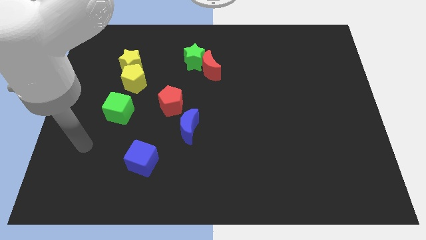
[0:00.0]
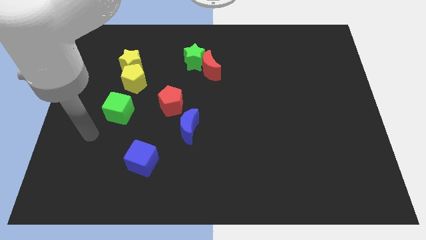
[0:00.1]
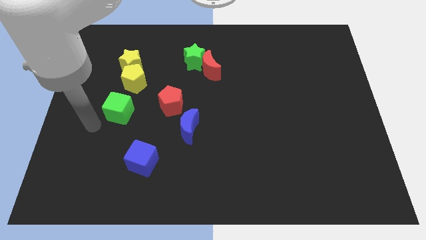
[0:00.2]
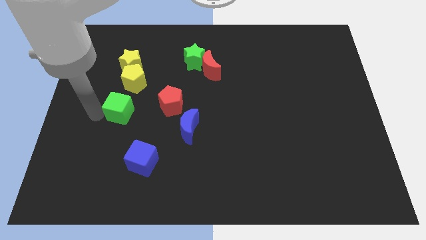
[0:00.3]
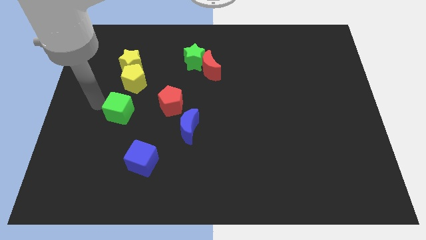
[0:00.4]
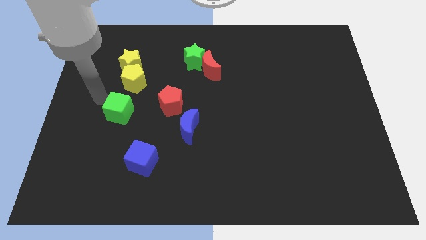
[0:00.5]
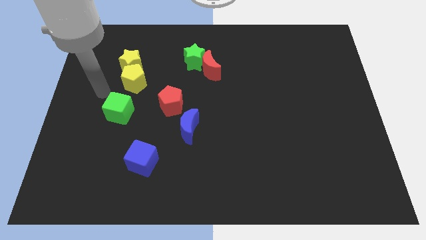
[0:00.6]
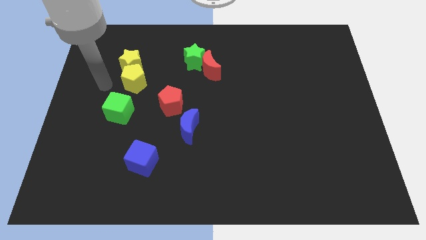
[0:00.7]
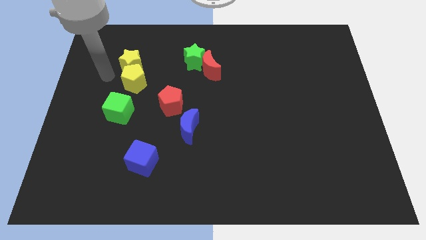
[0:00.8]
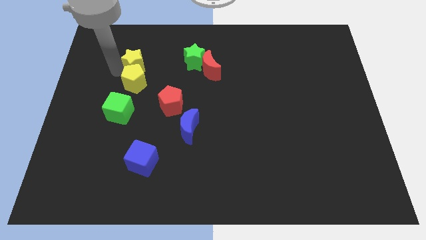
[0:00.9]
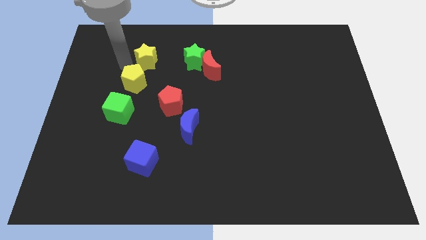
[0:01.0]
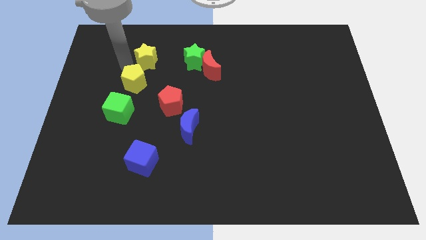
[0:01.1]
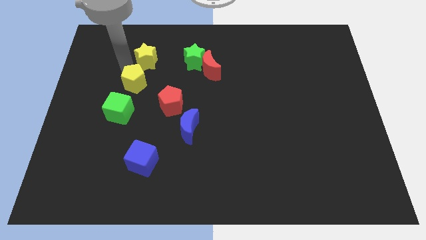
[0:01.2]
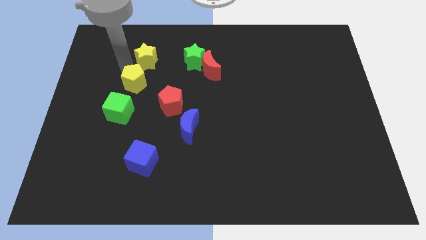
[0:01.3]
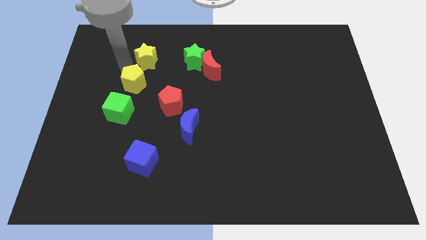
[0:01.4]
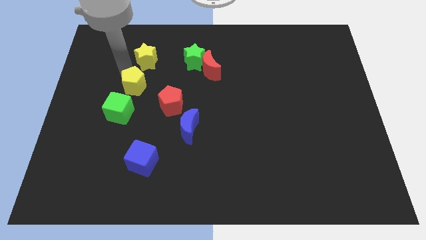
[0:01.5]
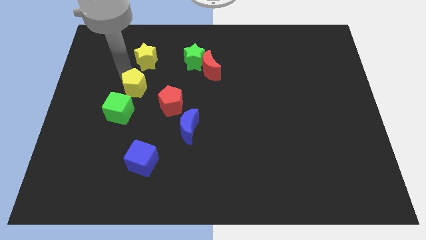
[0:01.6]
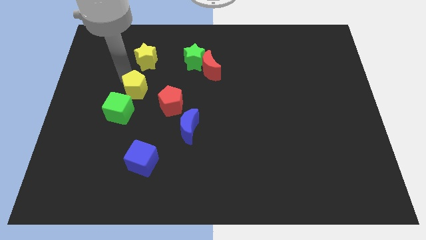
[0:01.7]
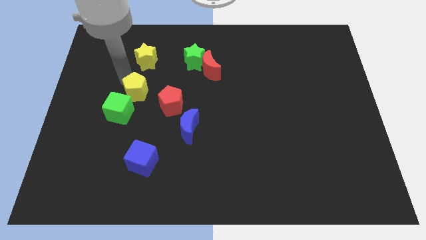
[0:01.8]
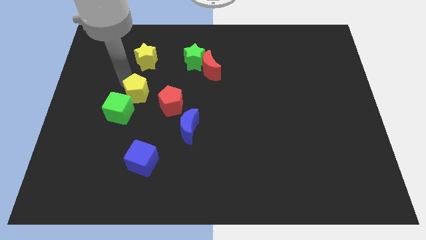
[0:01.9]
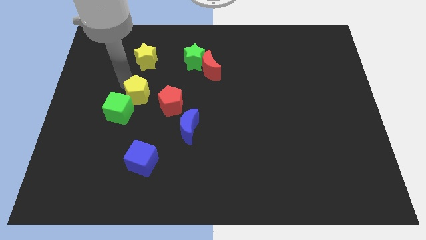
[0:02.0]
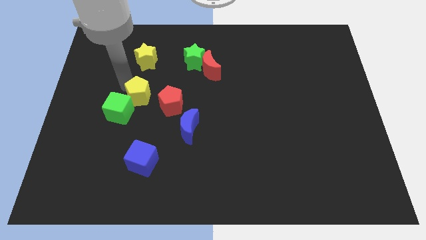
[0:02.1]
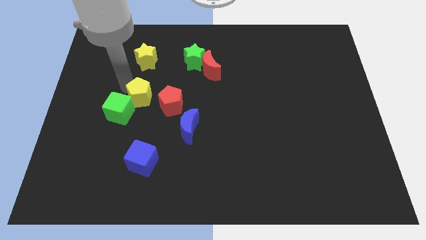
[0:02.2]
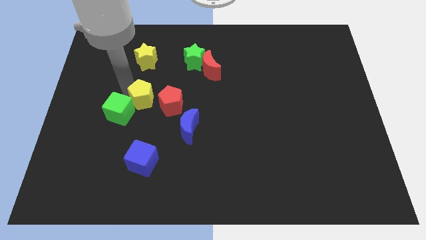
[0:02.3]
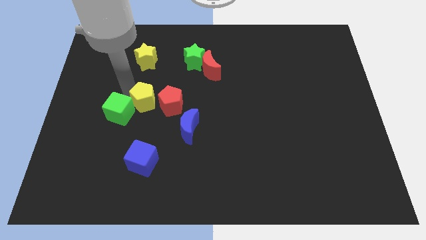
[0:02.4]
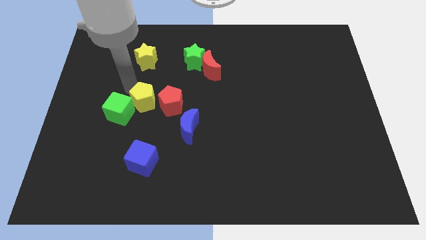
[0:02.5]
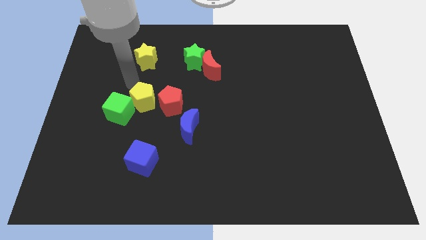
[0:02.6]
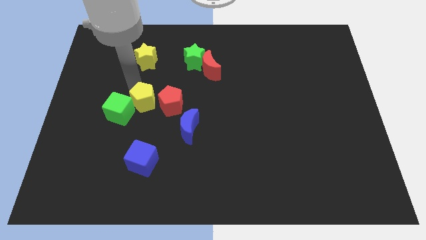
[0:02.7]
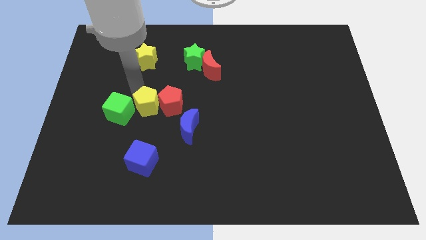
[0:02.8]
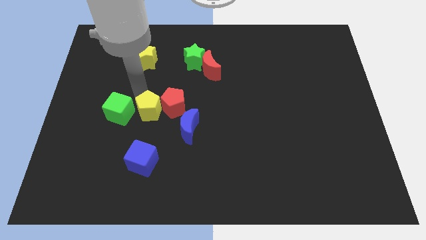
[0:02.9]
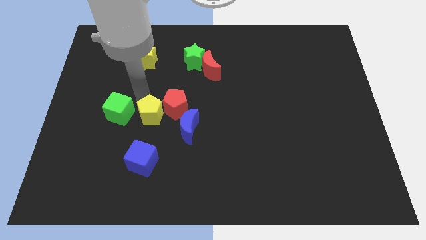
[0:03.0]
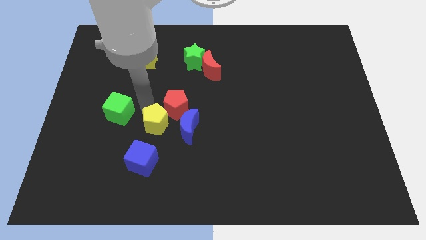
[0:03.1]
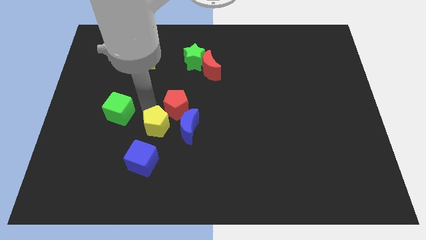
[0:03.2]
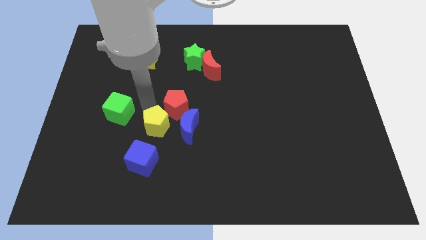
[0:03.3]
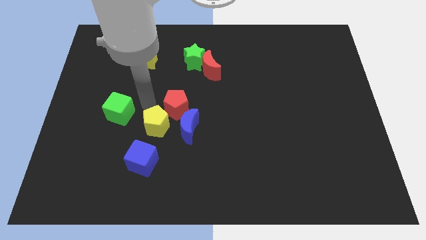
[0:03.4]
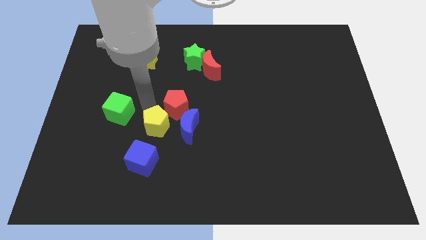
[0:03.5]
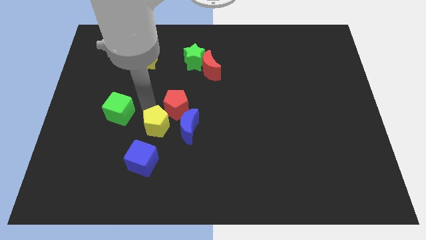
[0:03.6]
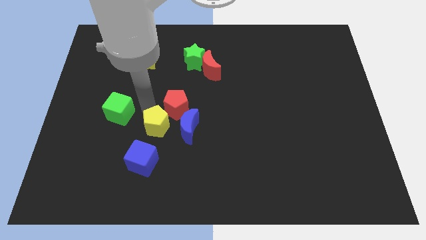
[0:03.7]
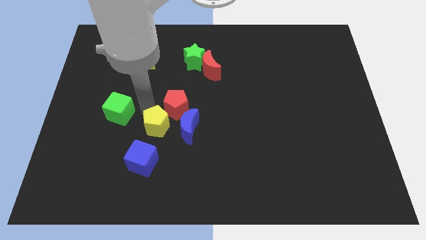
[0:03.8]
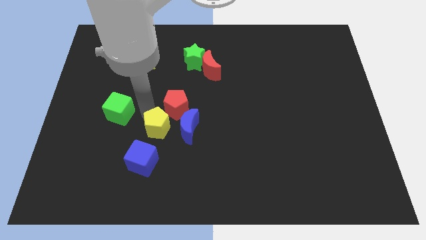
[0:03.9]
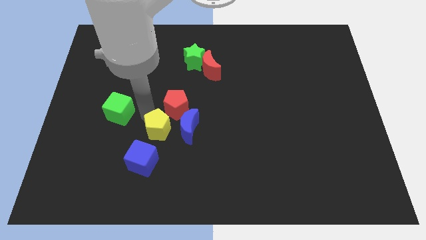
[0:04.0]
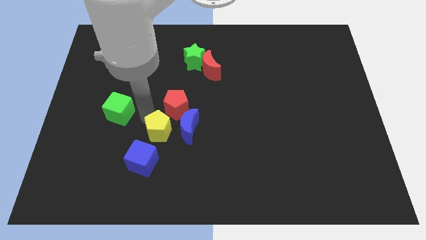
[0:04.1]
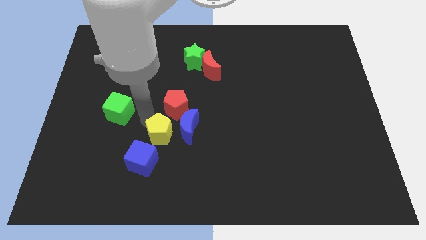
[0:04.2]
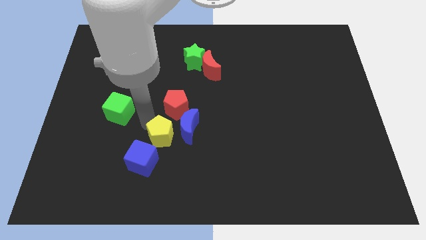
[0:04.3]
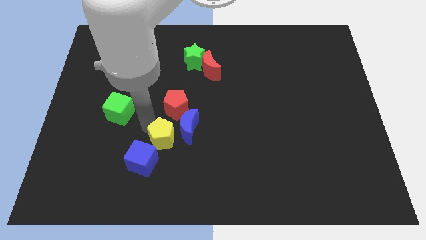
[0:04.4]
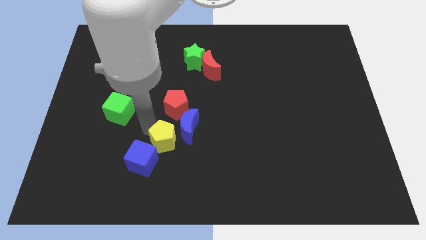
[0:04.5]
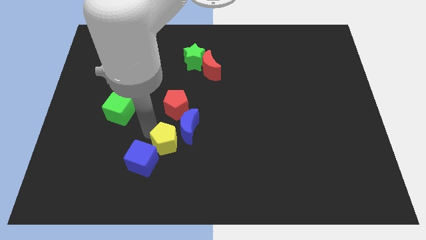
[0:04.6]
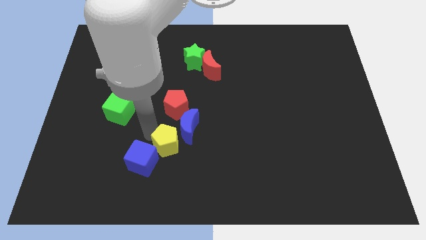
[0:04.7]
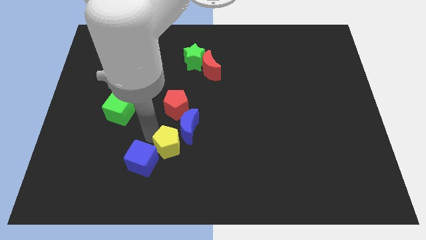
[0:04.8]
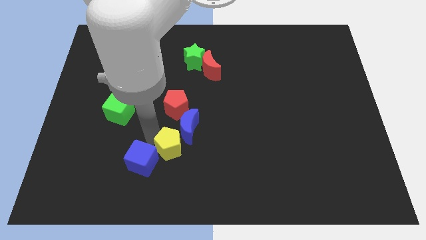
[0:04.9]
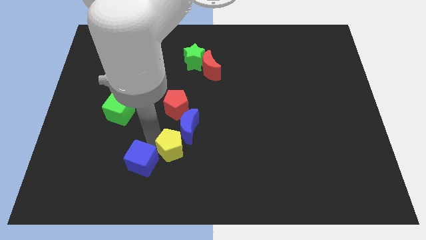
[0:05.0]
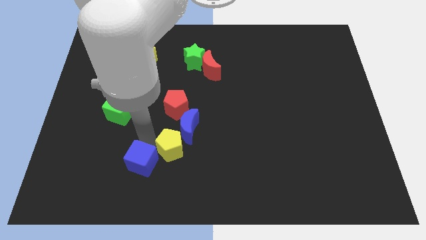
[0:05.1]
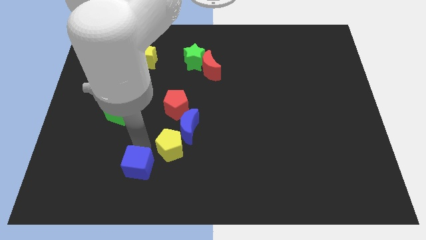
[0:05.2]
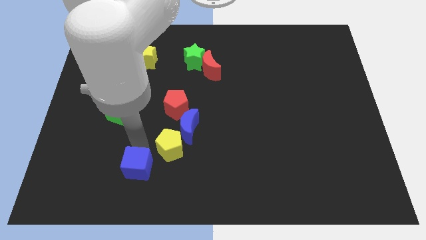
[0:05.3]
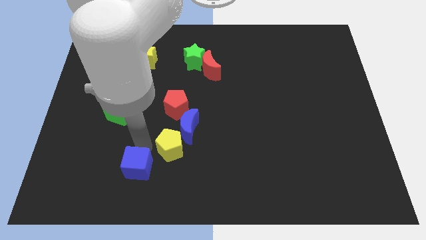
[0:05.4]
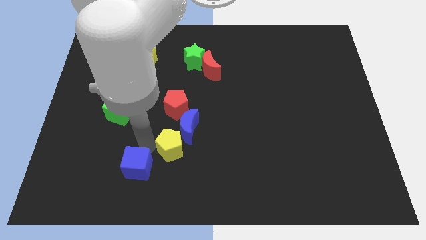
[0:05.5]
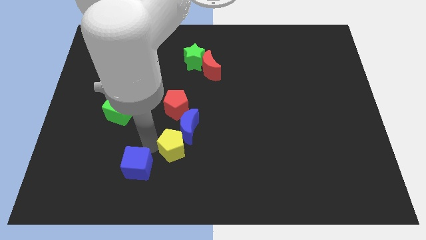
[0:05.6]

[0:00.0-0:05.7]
slide the yellow pentagon downwards and right diagonally

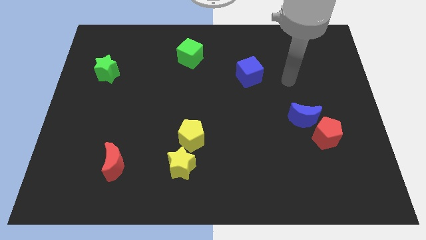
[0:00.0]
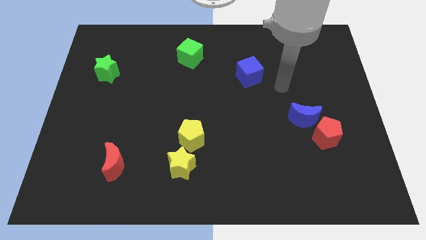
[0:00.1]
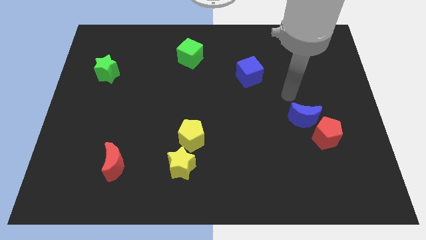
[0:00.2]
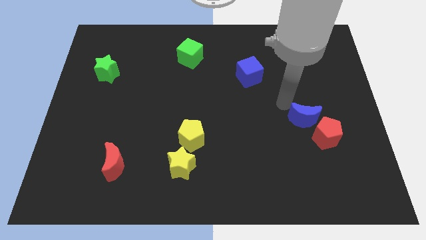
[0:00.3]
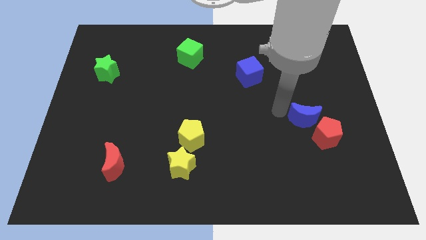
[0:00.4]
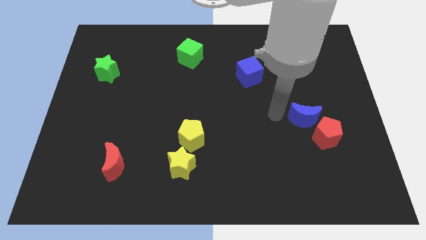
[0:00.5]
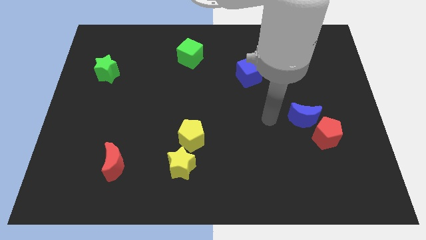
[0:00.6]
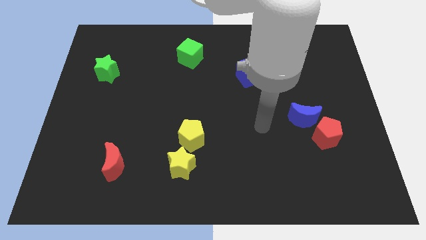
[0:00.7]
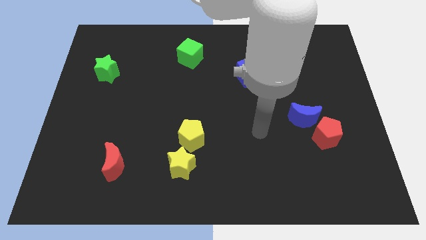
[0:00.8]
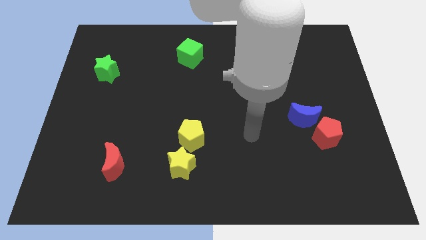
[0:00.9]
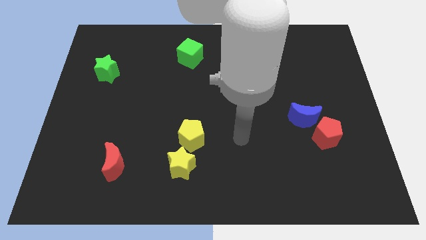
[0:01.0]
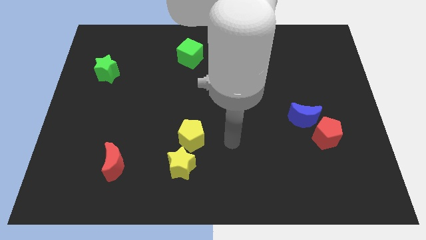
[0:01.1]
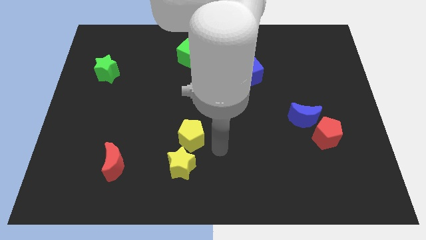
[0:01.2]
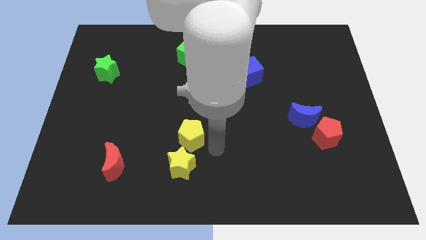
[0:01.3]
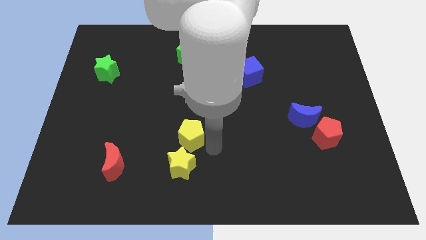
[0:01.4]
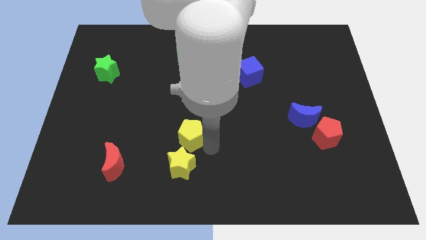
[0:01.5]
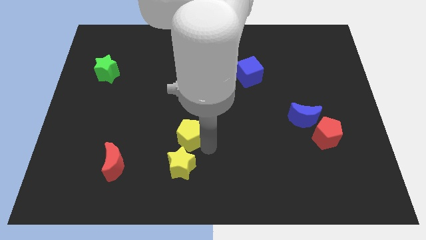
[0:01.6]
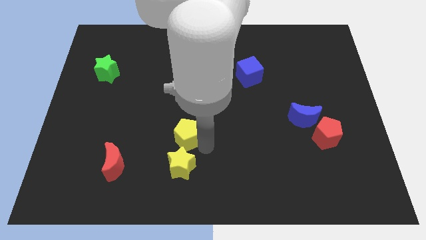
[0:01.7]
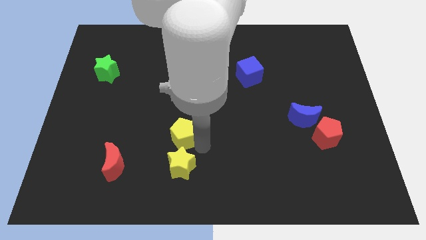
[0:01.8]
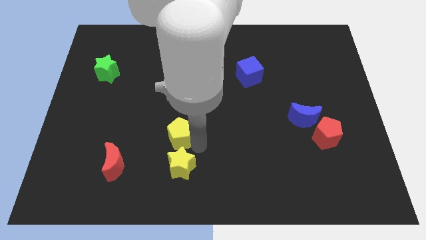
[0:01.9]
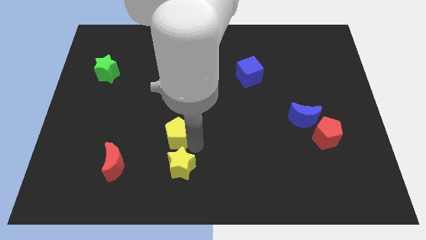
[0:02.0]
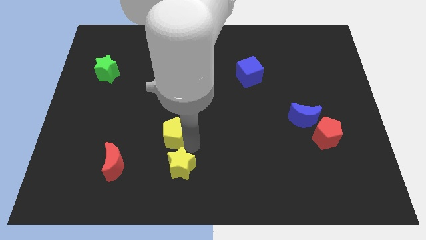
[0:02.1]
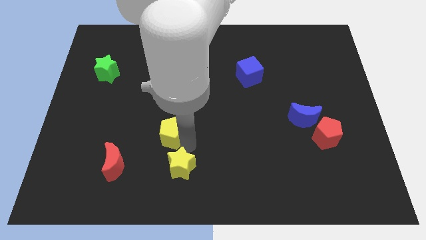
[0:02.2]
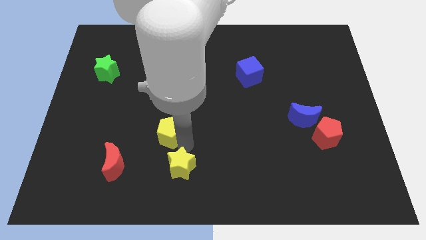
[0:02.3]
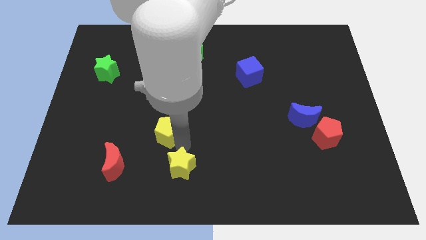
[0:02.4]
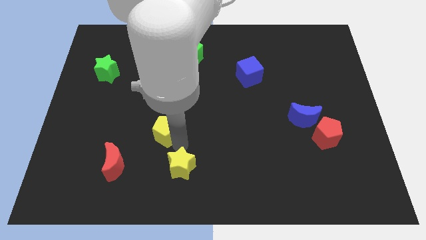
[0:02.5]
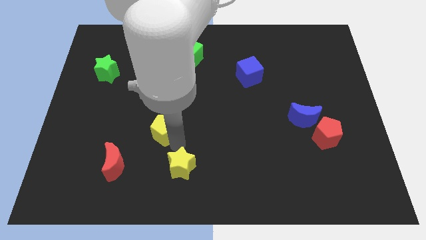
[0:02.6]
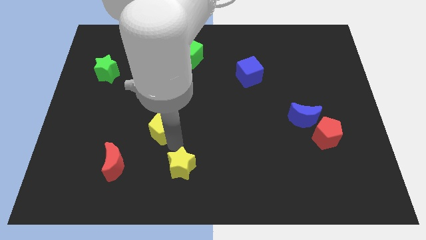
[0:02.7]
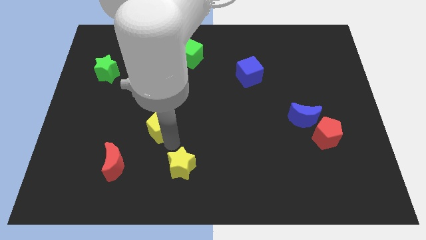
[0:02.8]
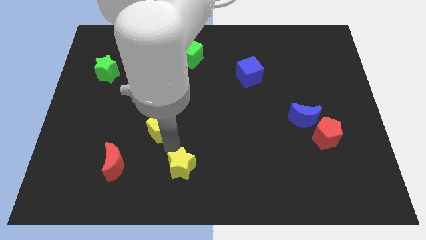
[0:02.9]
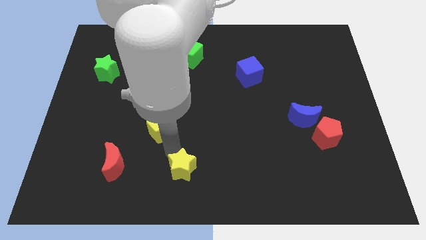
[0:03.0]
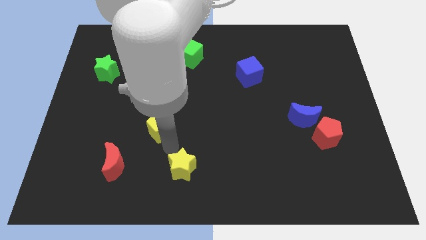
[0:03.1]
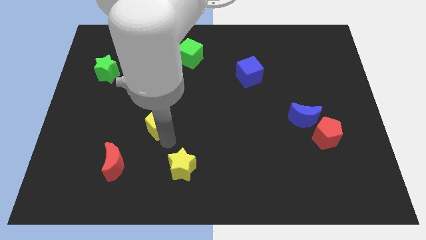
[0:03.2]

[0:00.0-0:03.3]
push the yellow pentagon slightly diagonally upwards and left
